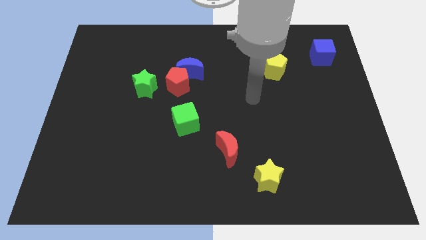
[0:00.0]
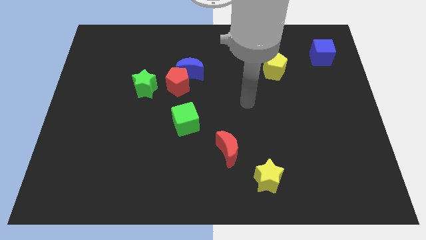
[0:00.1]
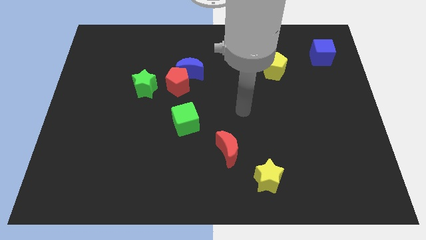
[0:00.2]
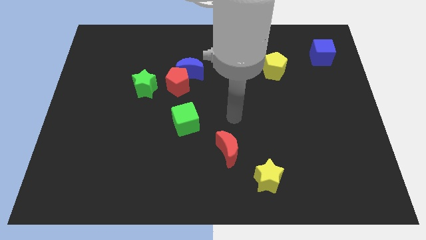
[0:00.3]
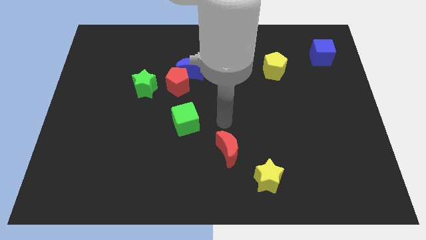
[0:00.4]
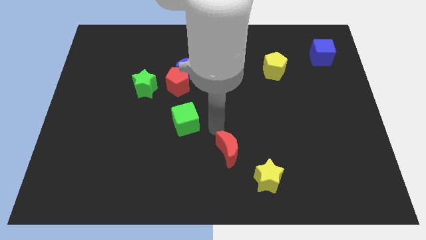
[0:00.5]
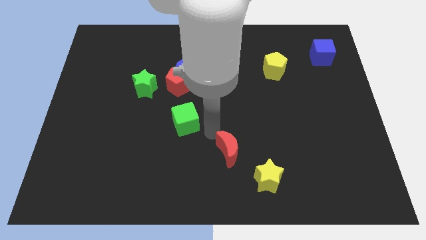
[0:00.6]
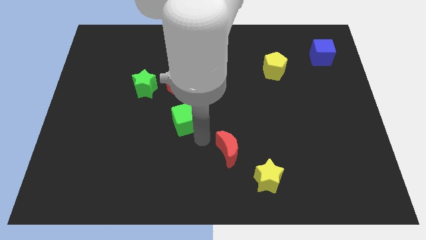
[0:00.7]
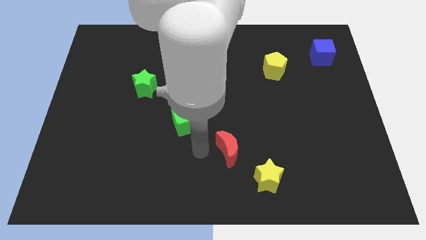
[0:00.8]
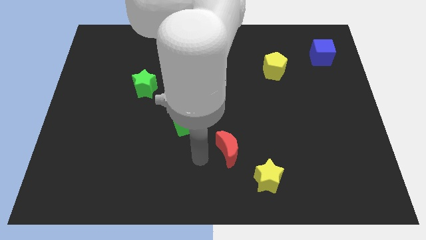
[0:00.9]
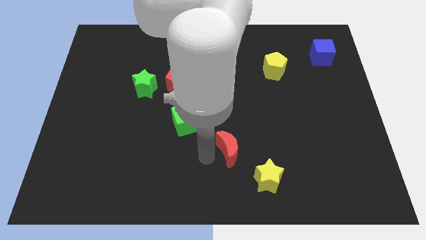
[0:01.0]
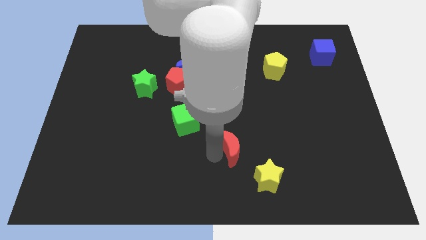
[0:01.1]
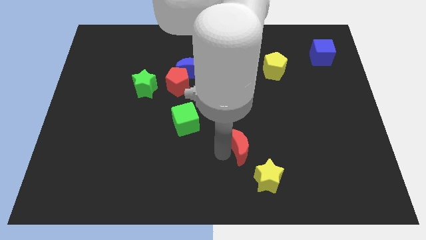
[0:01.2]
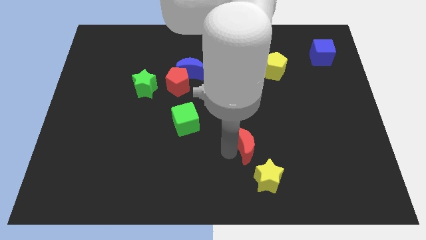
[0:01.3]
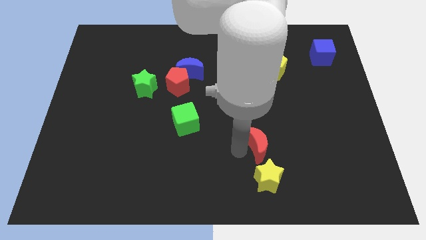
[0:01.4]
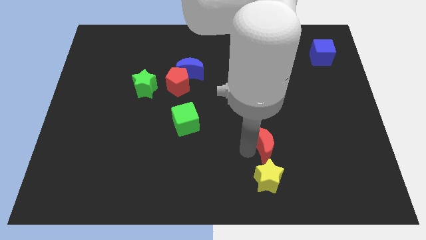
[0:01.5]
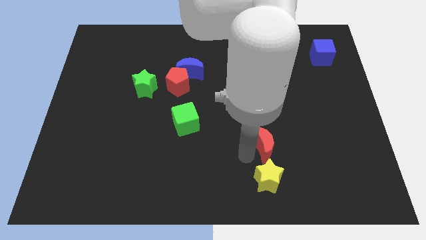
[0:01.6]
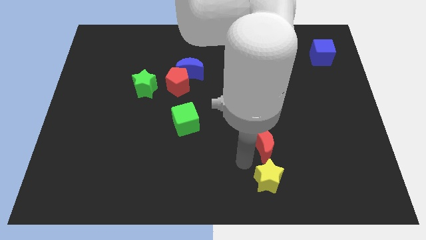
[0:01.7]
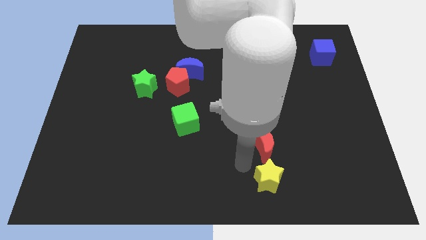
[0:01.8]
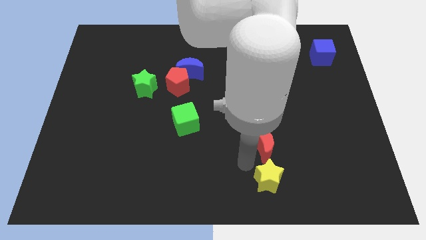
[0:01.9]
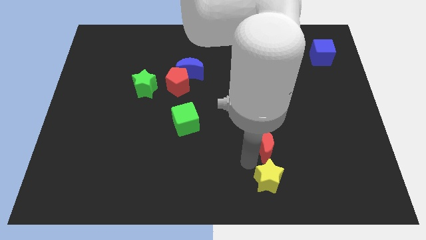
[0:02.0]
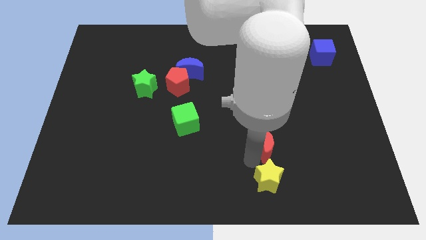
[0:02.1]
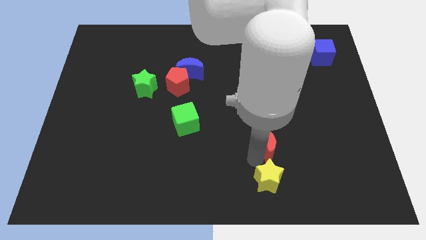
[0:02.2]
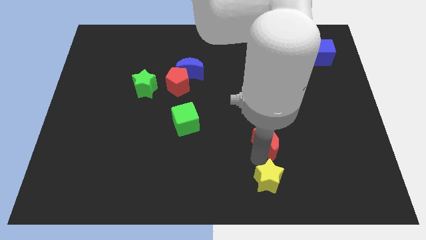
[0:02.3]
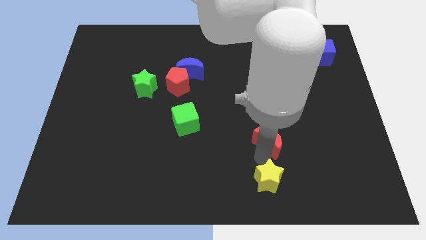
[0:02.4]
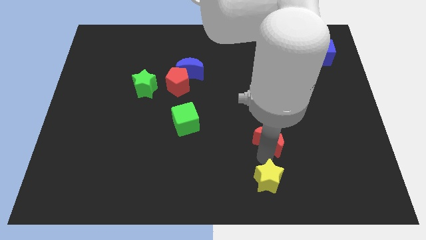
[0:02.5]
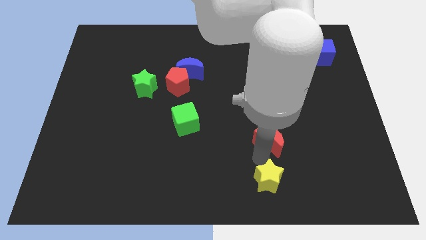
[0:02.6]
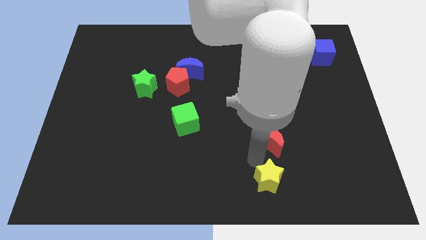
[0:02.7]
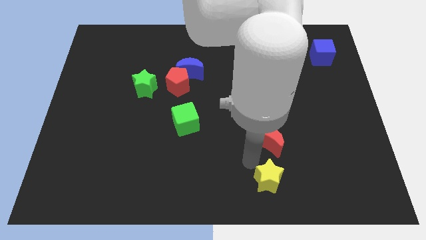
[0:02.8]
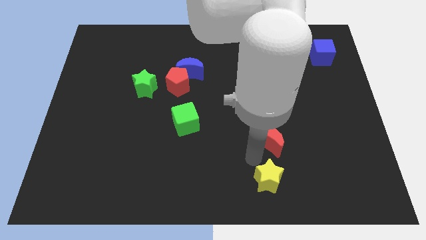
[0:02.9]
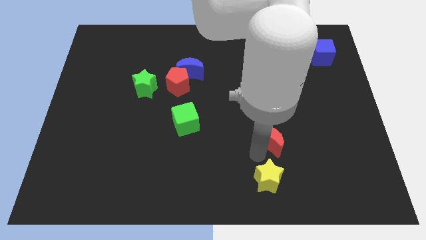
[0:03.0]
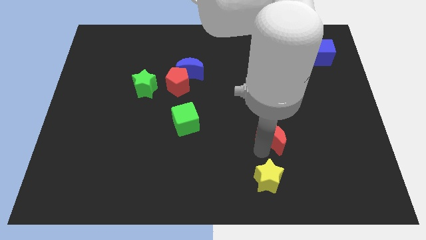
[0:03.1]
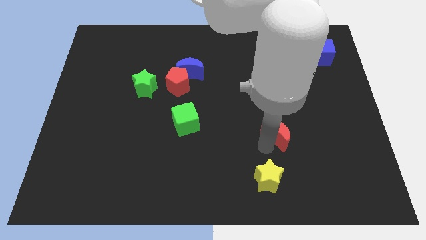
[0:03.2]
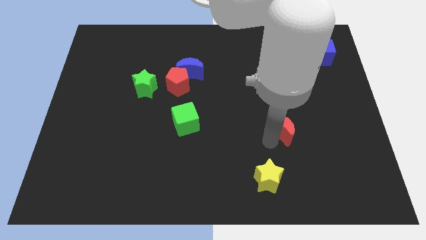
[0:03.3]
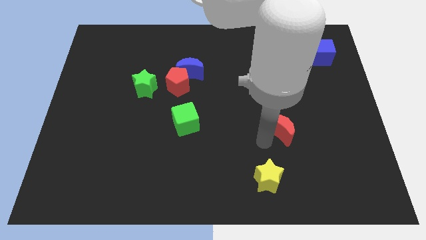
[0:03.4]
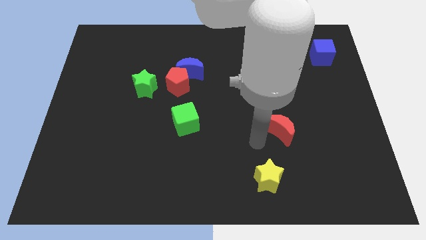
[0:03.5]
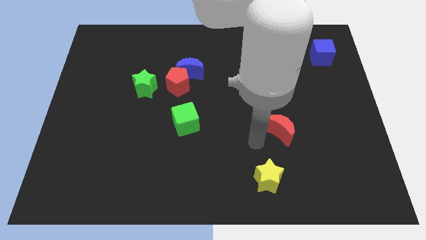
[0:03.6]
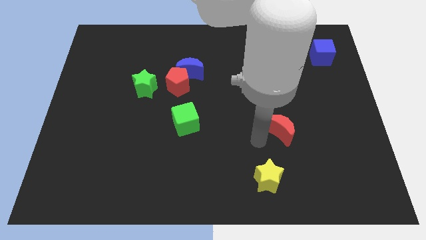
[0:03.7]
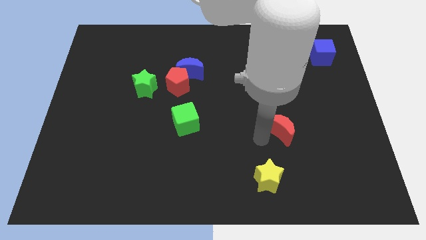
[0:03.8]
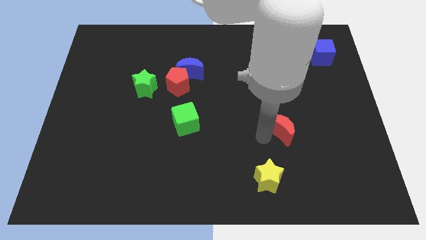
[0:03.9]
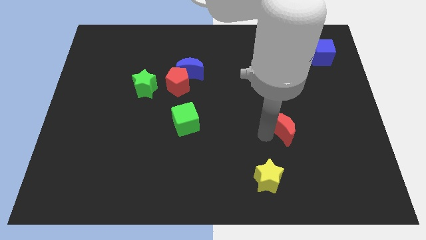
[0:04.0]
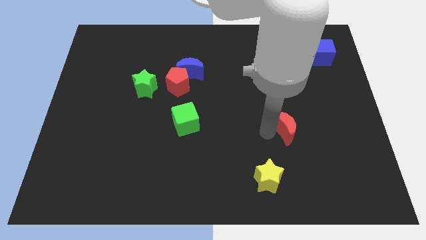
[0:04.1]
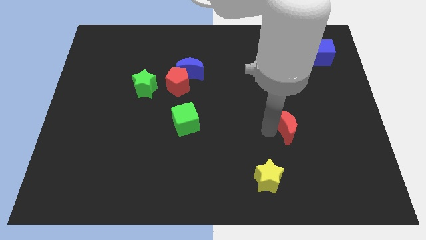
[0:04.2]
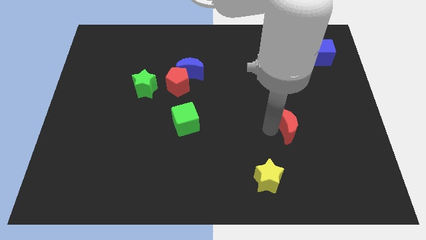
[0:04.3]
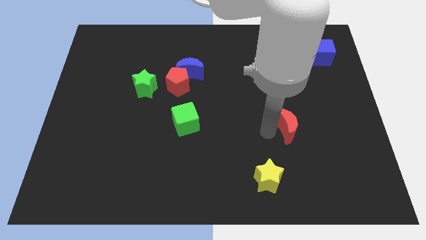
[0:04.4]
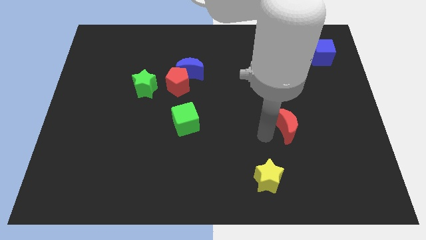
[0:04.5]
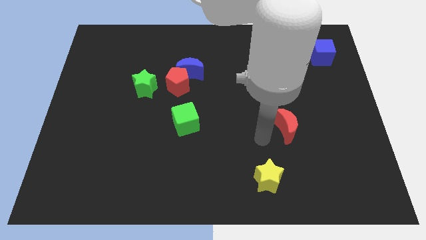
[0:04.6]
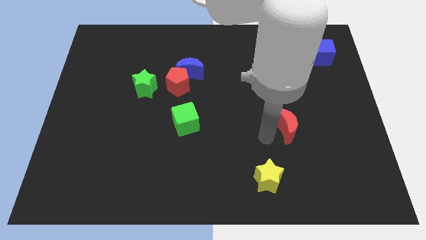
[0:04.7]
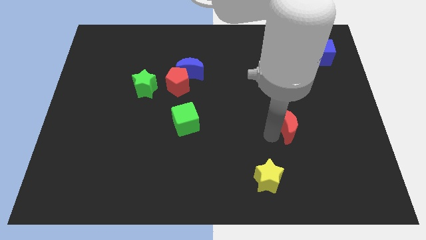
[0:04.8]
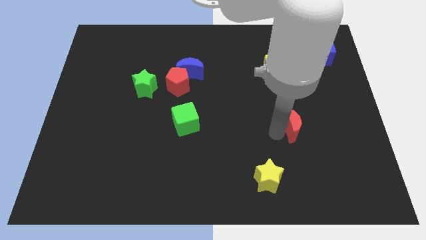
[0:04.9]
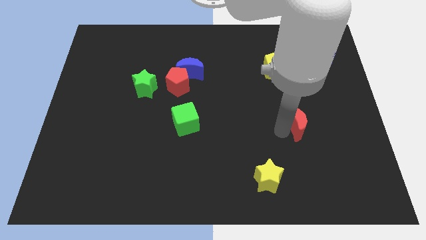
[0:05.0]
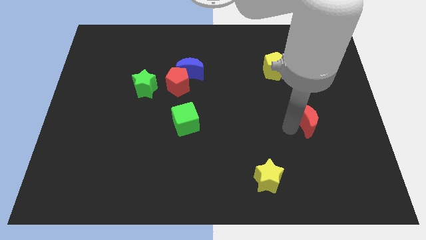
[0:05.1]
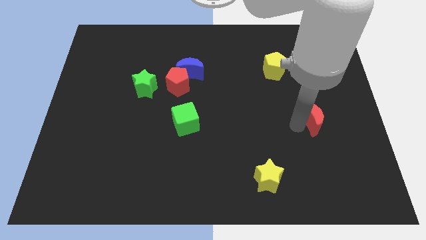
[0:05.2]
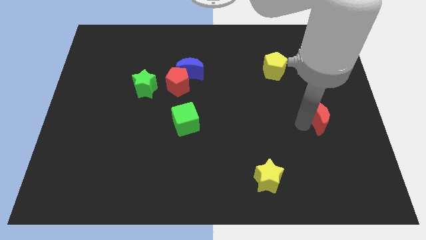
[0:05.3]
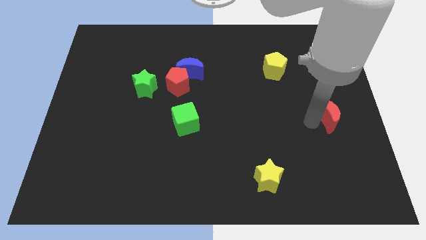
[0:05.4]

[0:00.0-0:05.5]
slide the red moon to the center right

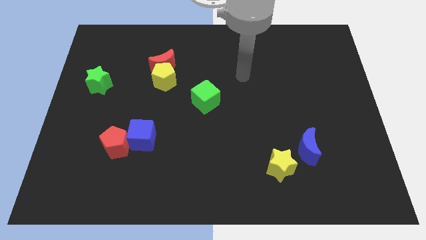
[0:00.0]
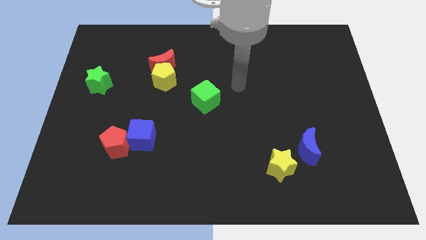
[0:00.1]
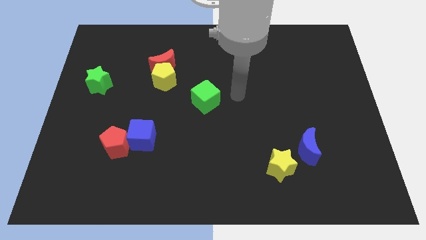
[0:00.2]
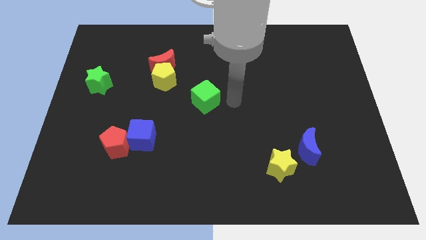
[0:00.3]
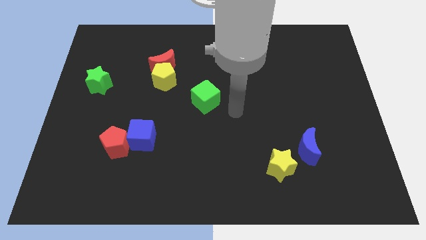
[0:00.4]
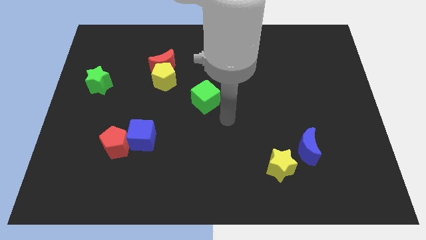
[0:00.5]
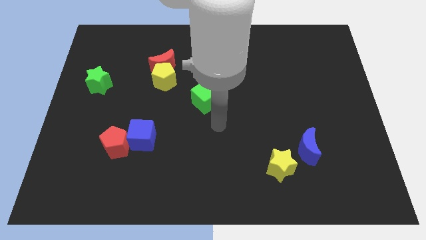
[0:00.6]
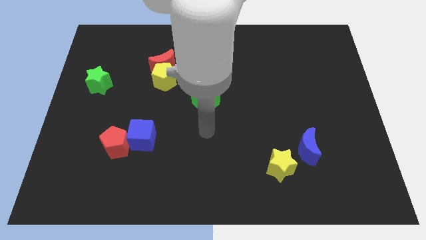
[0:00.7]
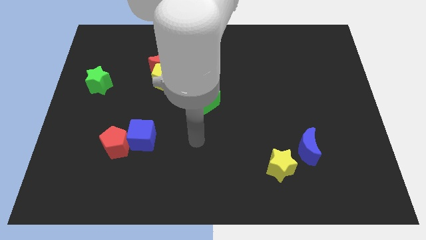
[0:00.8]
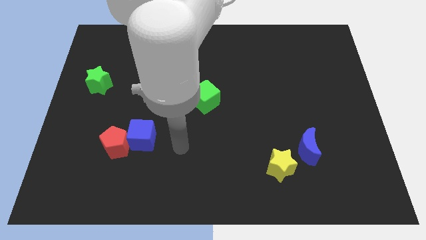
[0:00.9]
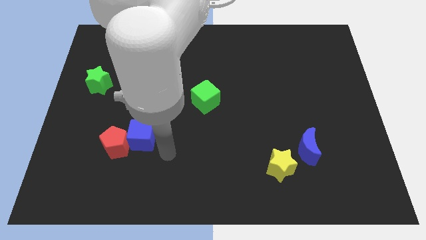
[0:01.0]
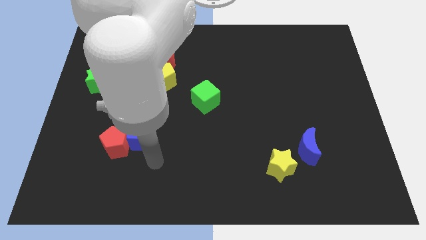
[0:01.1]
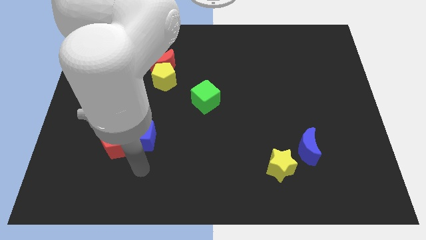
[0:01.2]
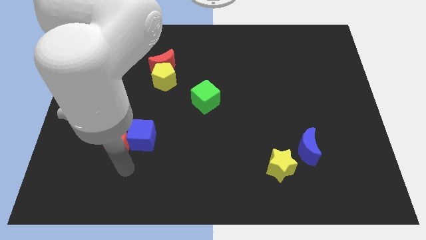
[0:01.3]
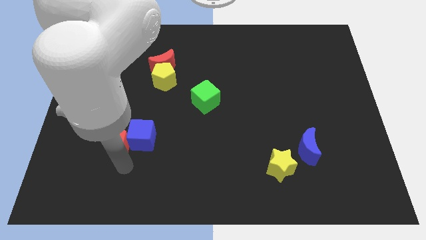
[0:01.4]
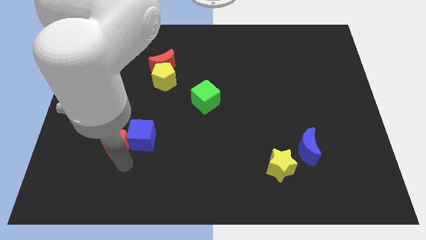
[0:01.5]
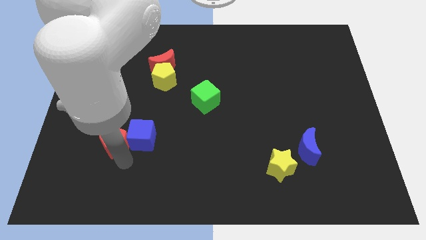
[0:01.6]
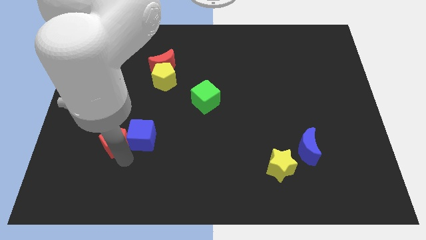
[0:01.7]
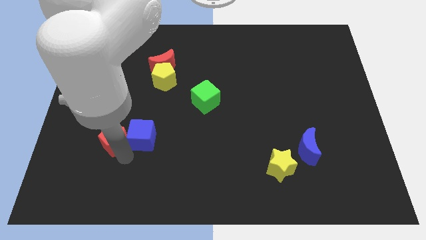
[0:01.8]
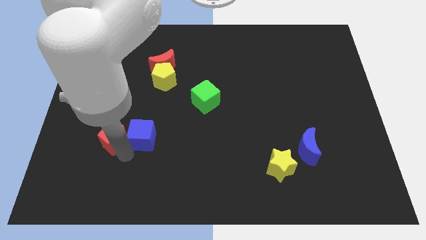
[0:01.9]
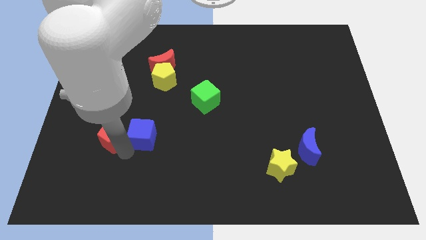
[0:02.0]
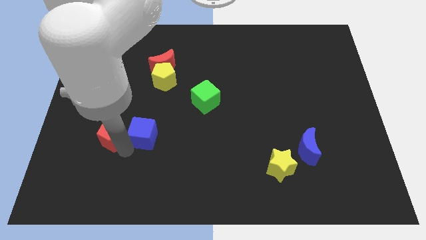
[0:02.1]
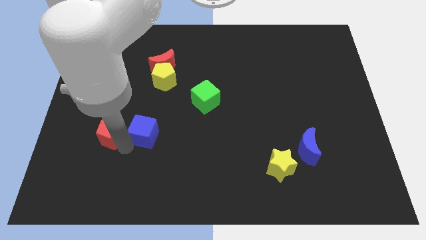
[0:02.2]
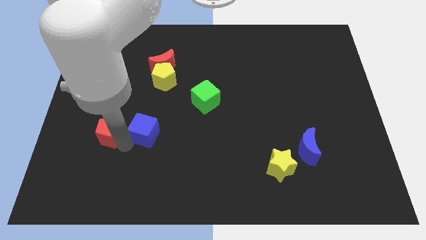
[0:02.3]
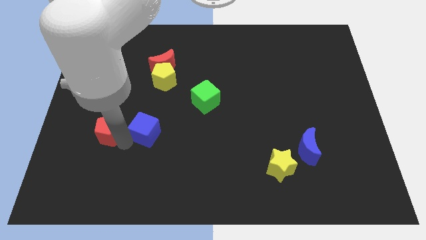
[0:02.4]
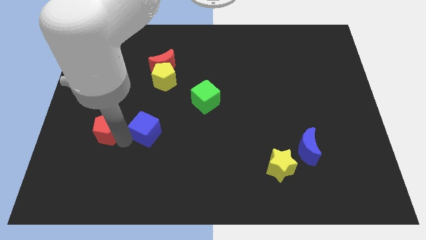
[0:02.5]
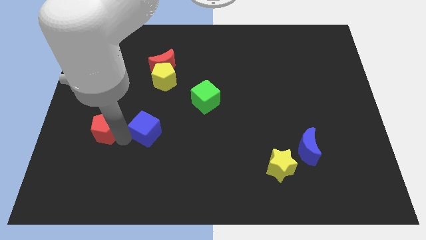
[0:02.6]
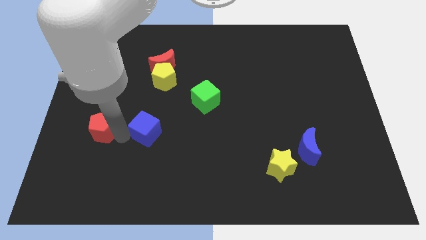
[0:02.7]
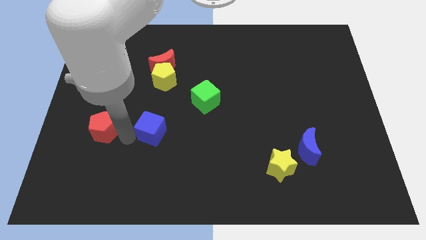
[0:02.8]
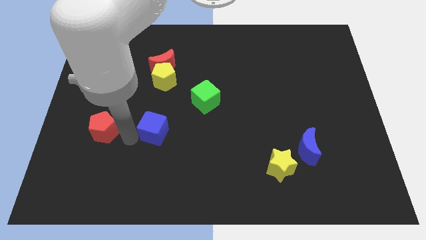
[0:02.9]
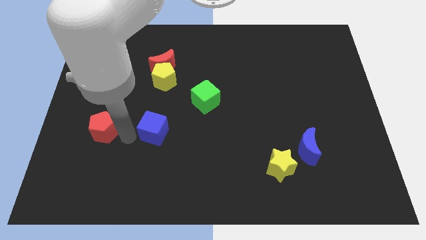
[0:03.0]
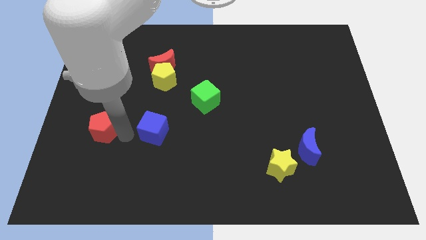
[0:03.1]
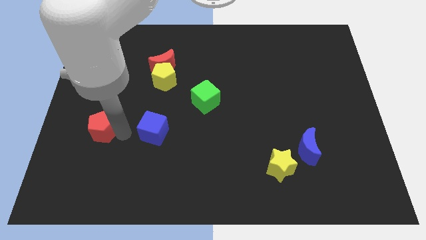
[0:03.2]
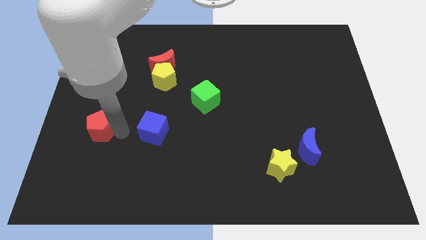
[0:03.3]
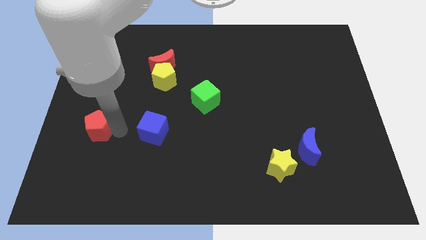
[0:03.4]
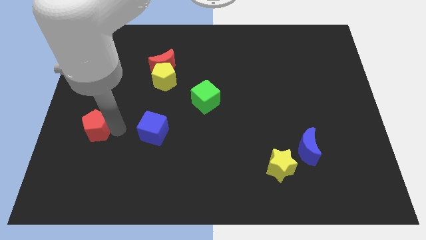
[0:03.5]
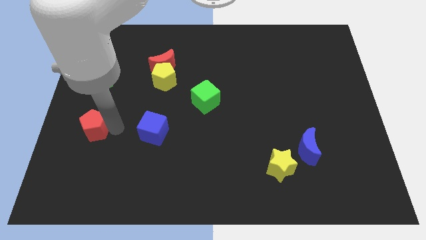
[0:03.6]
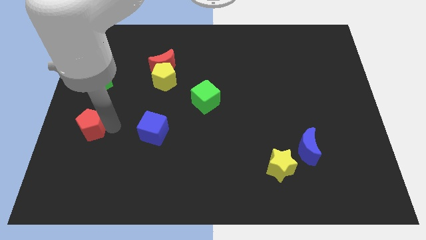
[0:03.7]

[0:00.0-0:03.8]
put the red pentagon to the left side of the board
